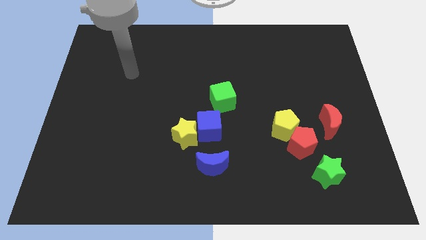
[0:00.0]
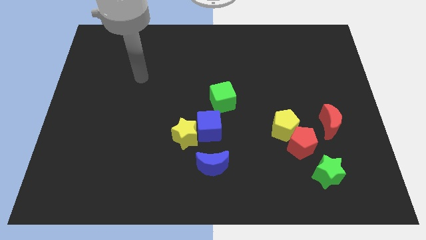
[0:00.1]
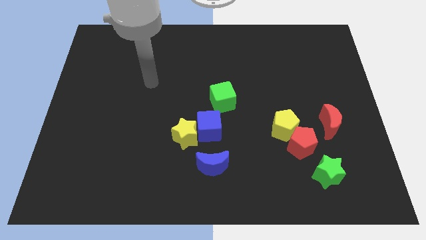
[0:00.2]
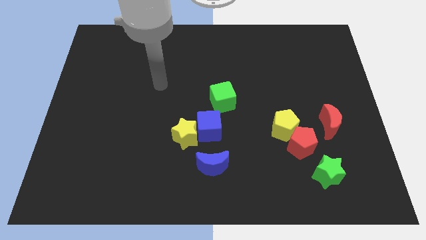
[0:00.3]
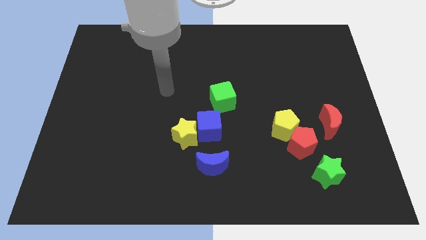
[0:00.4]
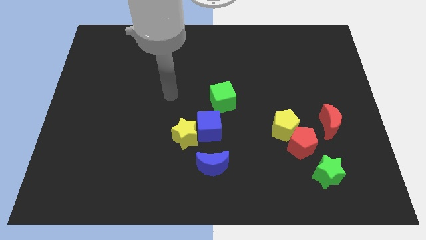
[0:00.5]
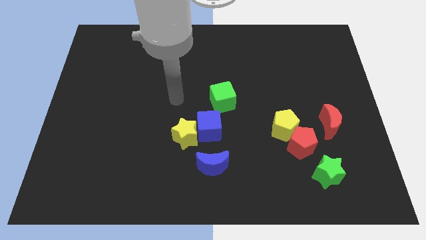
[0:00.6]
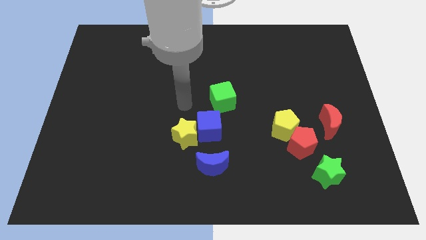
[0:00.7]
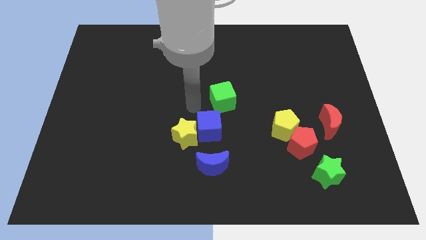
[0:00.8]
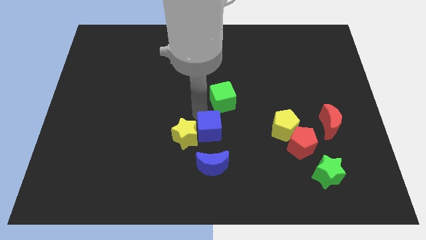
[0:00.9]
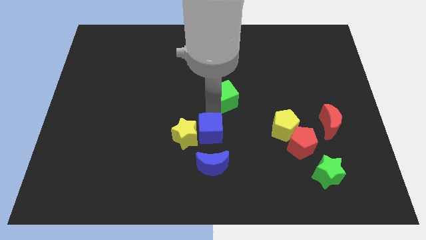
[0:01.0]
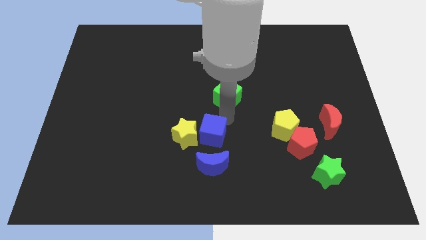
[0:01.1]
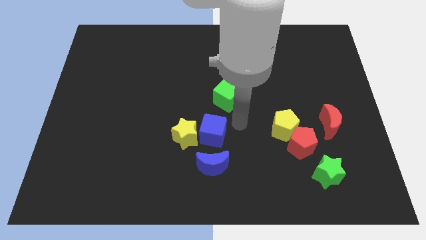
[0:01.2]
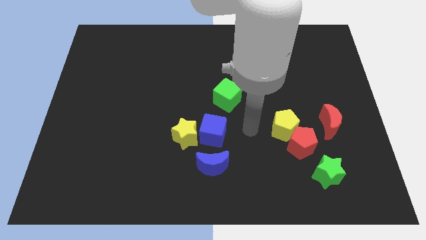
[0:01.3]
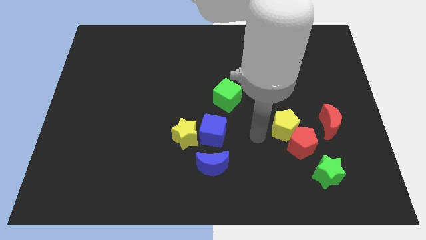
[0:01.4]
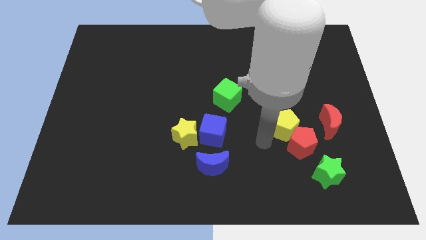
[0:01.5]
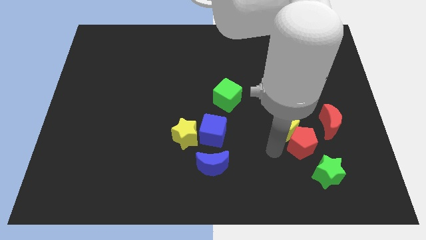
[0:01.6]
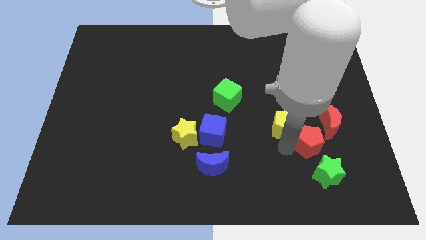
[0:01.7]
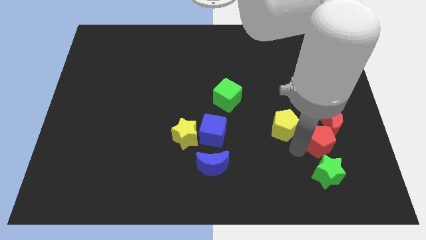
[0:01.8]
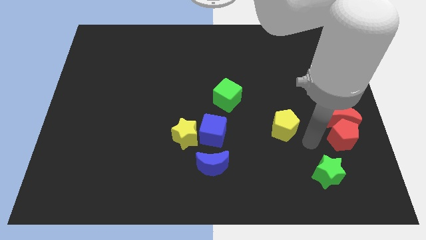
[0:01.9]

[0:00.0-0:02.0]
move the yellow pentagon away from the red pentagon

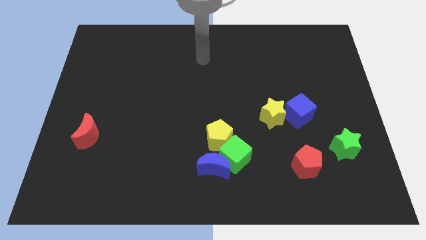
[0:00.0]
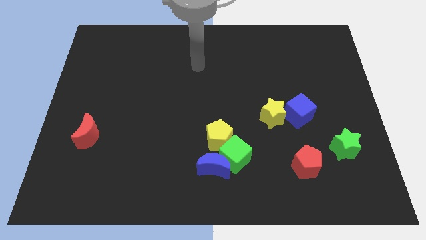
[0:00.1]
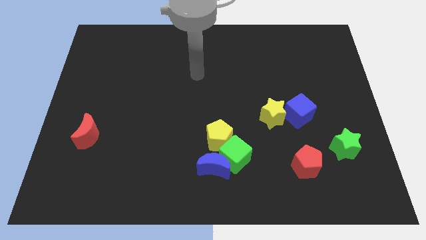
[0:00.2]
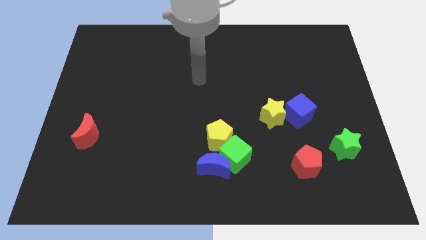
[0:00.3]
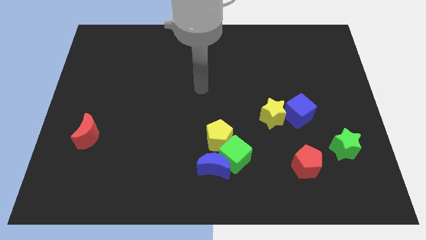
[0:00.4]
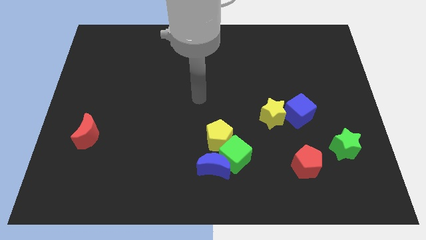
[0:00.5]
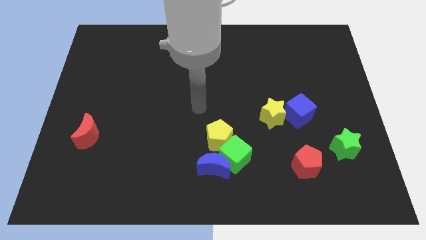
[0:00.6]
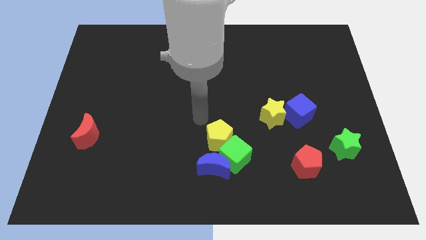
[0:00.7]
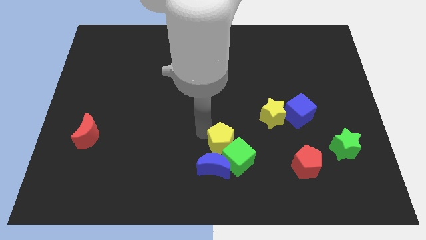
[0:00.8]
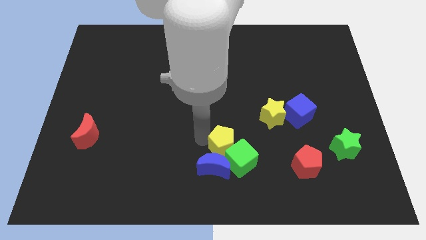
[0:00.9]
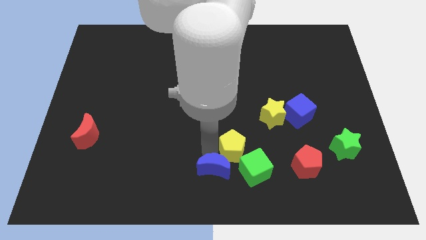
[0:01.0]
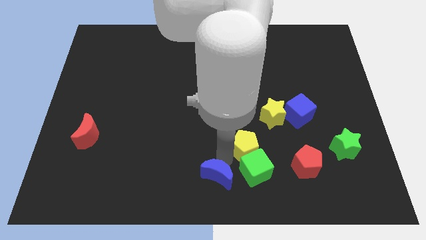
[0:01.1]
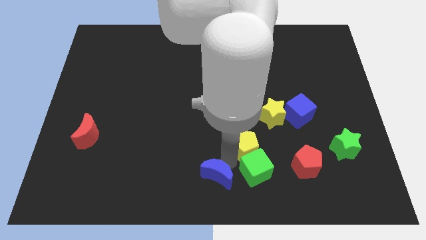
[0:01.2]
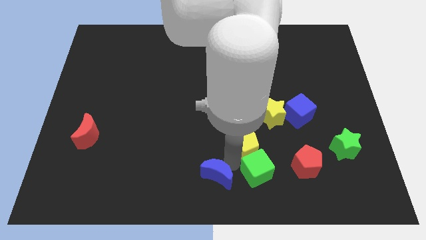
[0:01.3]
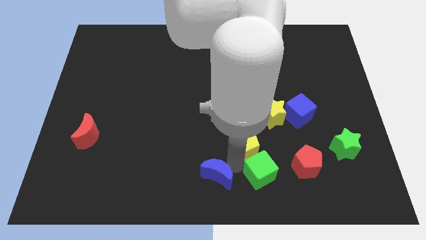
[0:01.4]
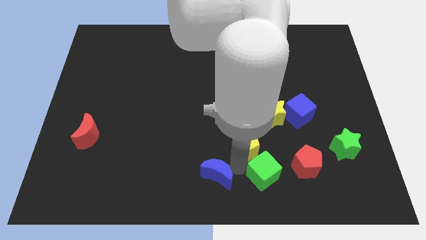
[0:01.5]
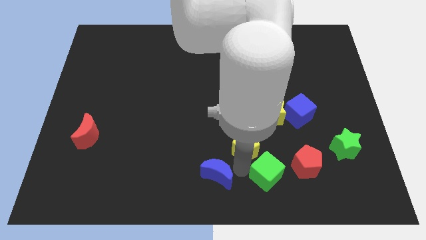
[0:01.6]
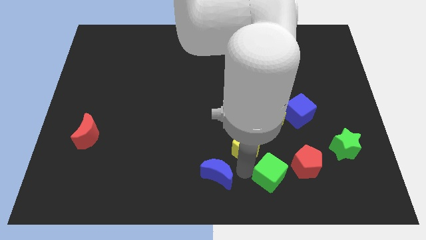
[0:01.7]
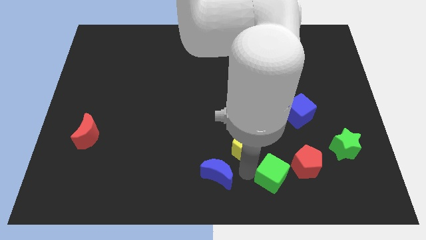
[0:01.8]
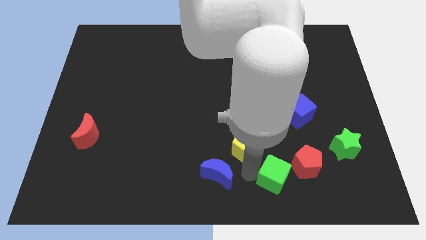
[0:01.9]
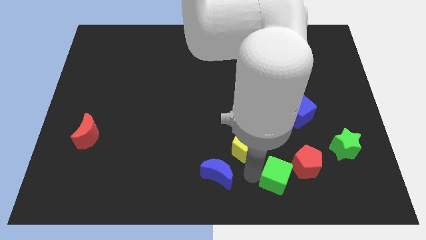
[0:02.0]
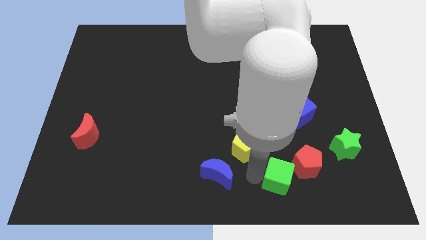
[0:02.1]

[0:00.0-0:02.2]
pull the green cube apart from the blue moon and yellow pentagon

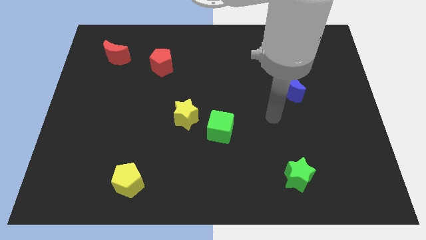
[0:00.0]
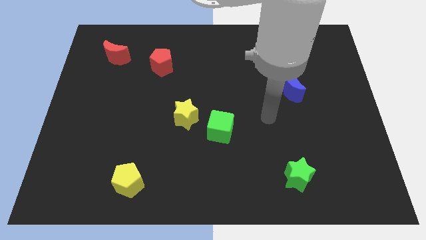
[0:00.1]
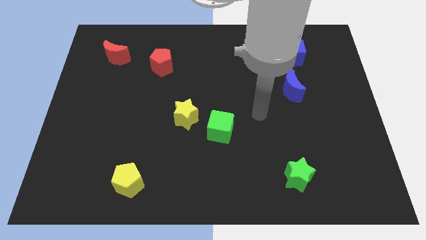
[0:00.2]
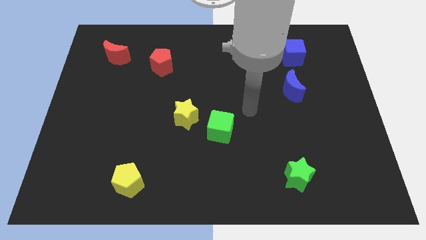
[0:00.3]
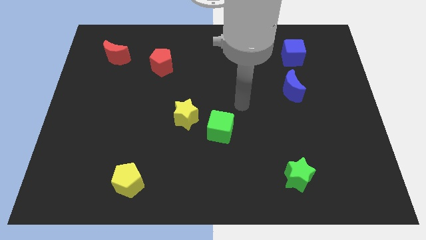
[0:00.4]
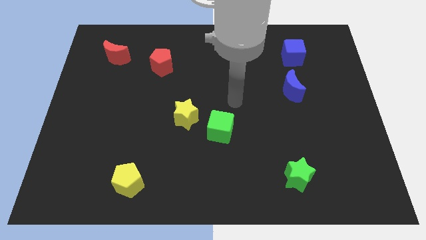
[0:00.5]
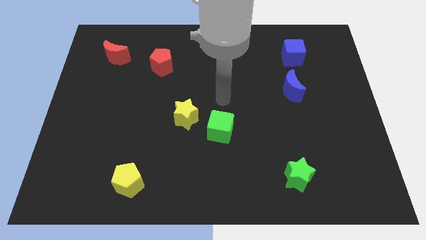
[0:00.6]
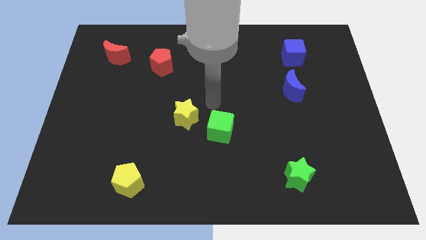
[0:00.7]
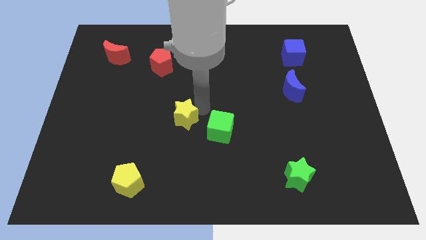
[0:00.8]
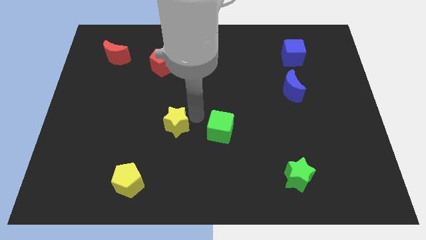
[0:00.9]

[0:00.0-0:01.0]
pull the green cube apart from the yellow star

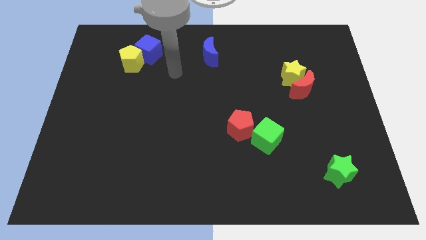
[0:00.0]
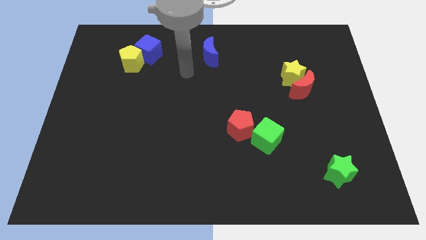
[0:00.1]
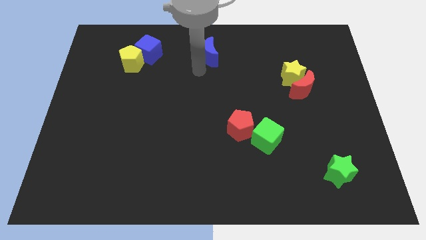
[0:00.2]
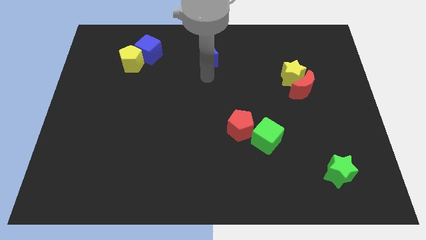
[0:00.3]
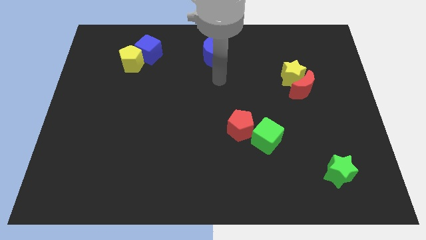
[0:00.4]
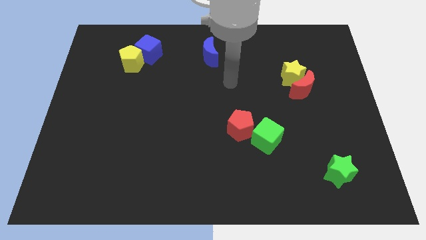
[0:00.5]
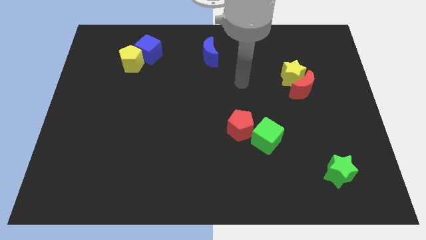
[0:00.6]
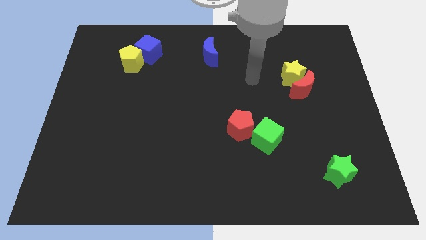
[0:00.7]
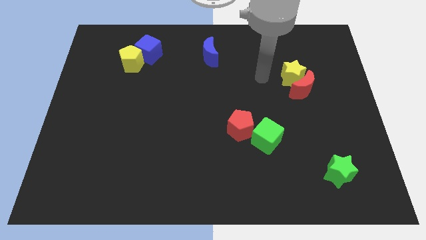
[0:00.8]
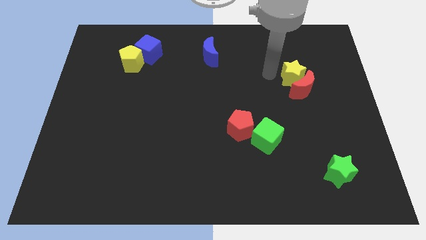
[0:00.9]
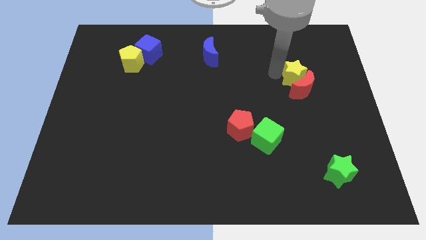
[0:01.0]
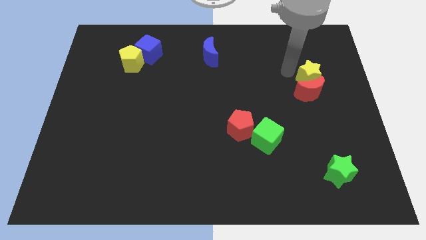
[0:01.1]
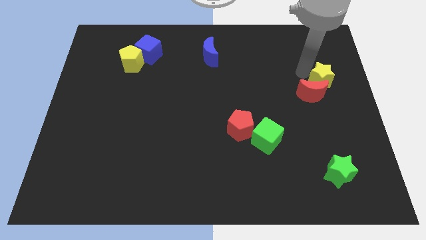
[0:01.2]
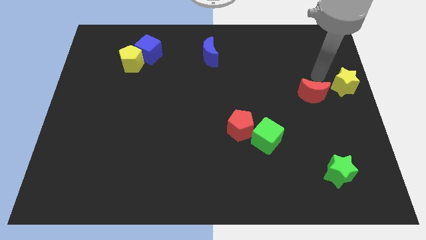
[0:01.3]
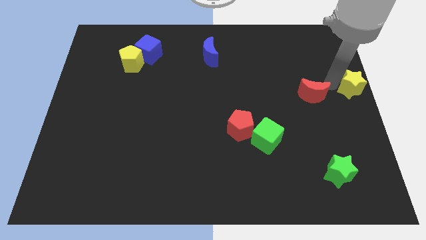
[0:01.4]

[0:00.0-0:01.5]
pull the red moon apart from the yellow star

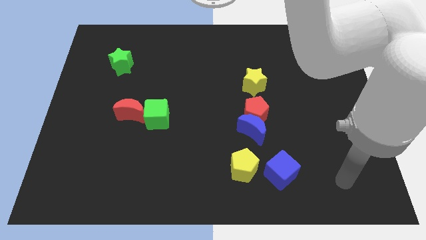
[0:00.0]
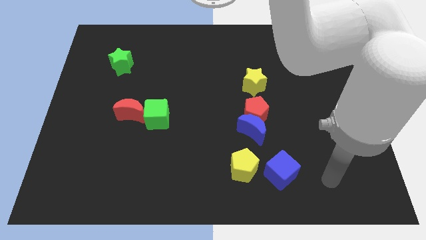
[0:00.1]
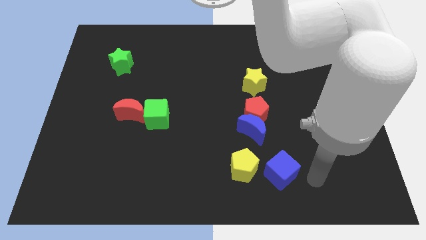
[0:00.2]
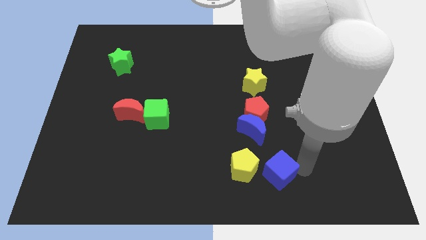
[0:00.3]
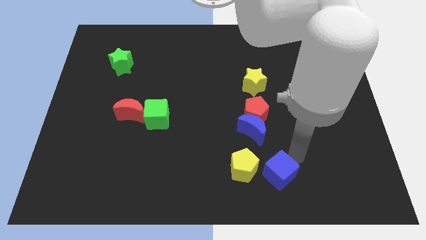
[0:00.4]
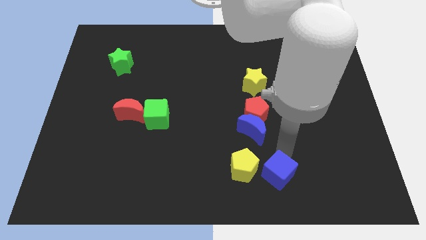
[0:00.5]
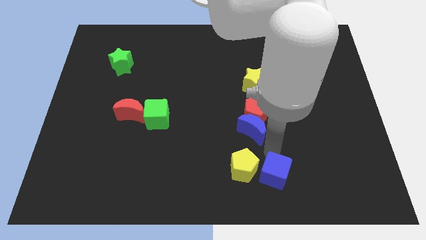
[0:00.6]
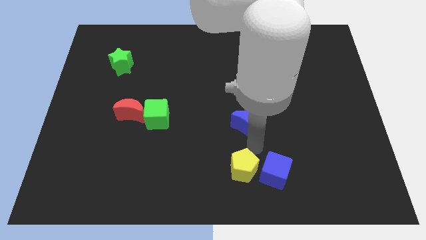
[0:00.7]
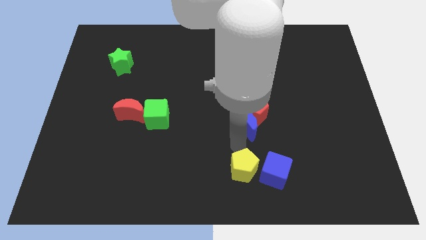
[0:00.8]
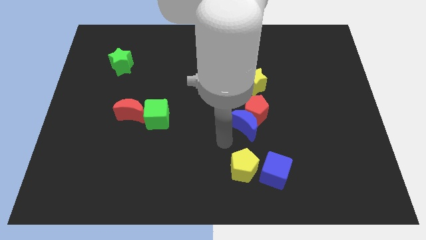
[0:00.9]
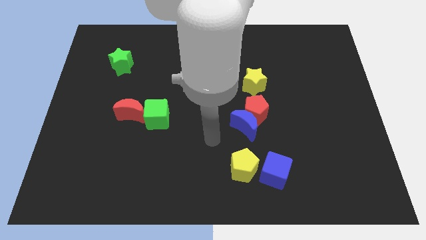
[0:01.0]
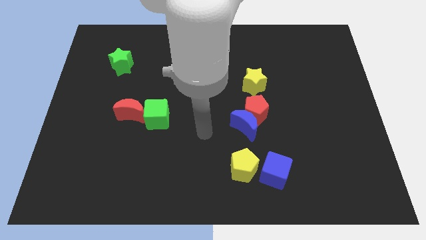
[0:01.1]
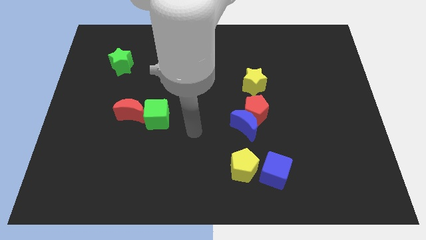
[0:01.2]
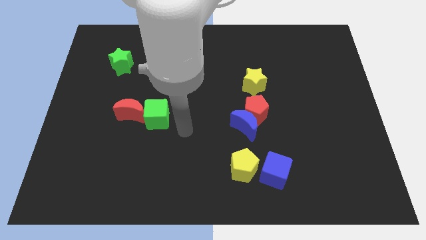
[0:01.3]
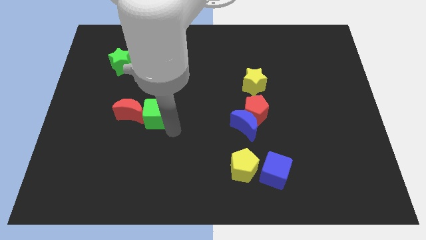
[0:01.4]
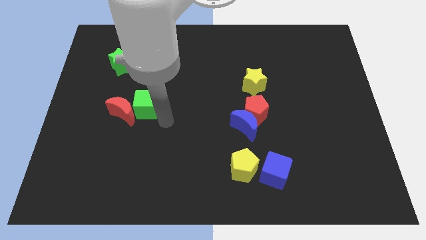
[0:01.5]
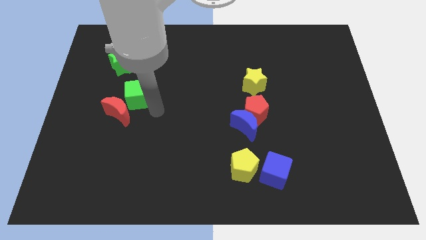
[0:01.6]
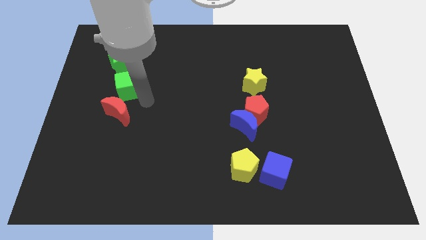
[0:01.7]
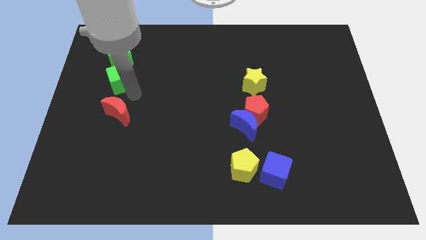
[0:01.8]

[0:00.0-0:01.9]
separate the red moon from the green cube

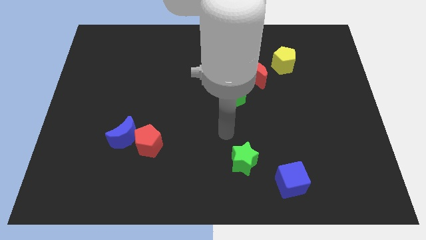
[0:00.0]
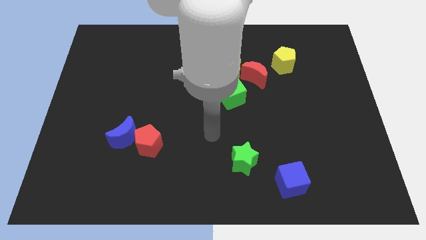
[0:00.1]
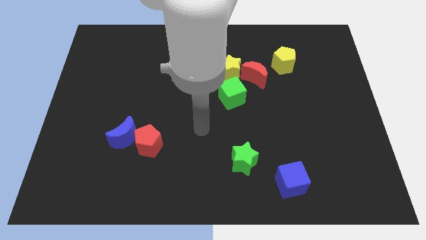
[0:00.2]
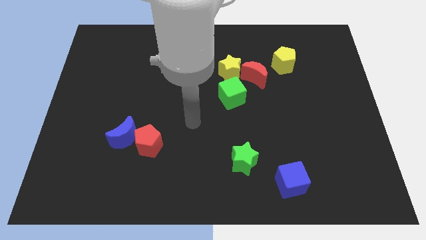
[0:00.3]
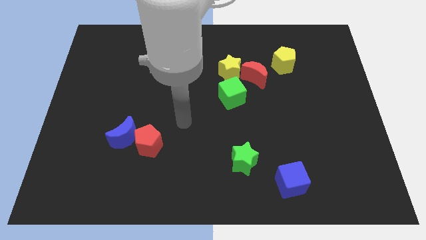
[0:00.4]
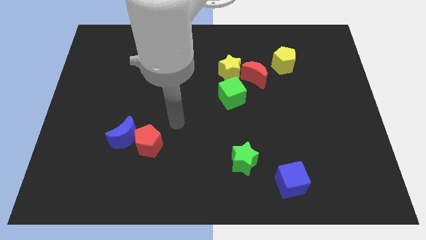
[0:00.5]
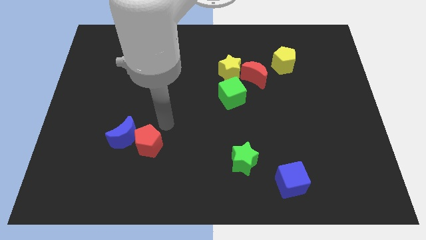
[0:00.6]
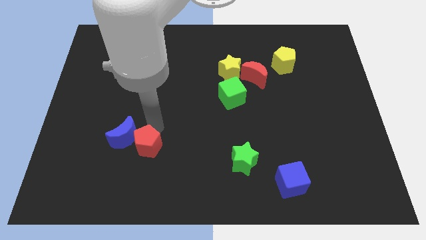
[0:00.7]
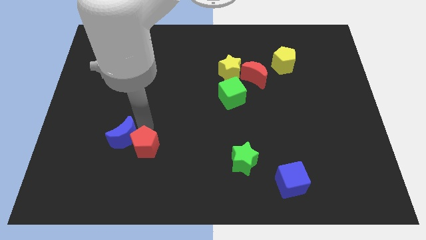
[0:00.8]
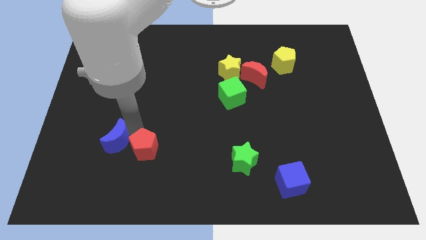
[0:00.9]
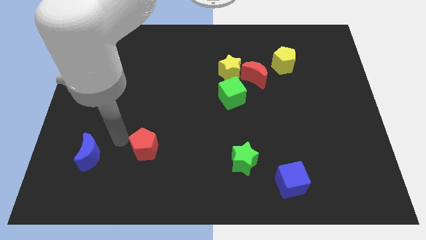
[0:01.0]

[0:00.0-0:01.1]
pull the red pentagon apart from the blue moon
